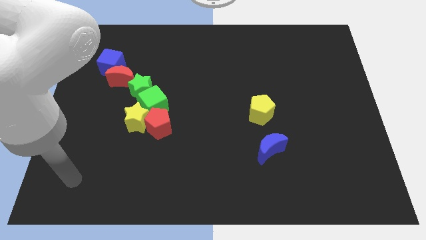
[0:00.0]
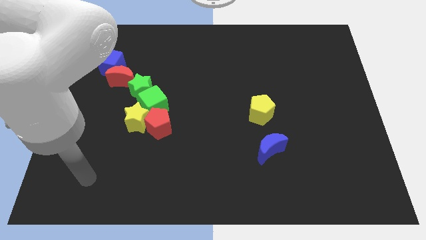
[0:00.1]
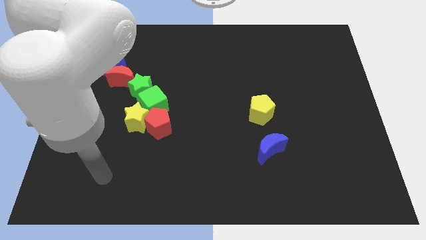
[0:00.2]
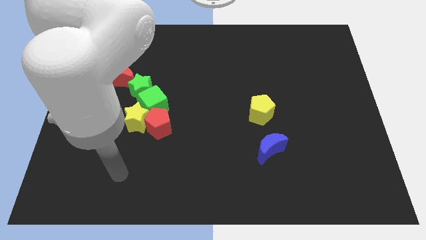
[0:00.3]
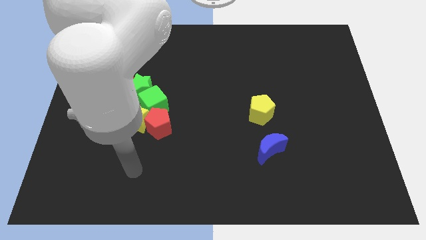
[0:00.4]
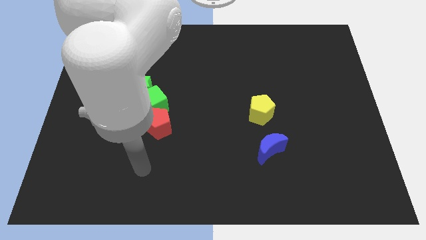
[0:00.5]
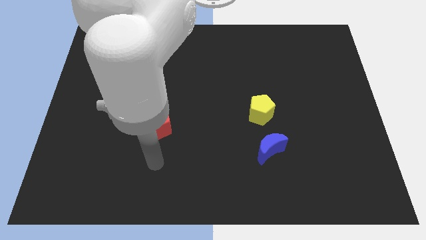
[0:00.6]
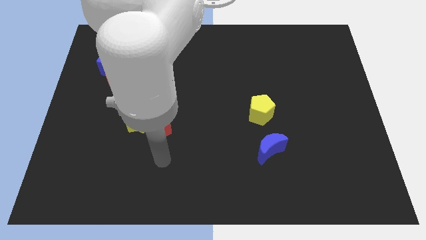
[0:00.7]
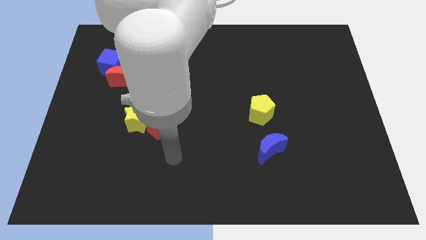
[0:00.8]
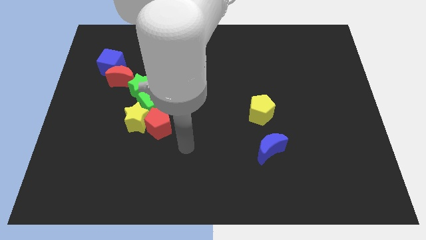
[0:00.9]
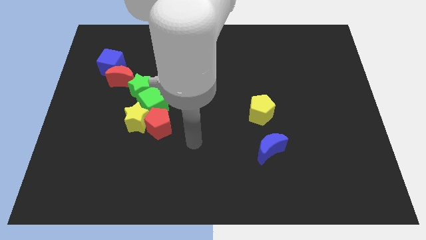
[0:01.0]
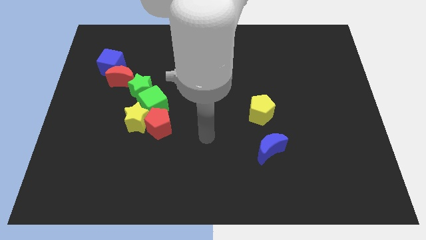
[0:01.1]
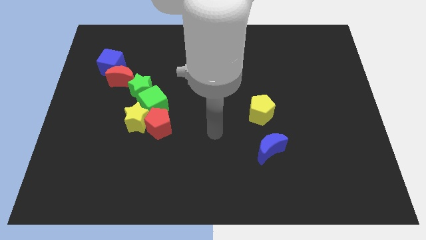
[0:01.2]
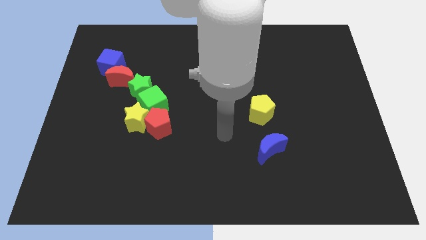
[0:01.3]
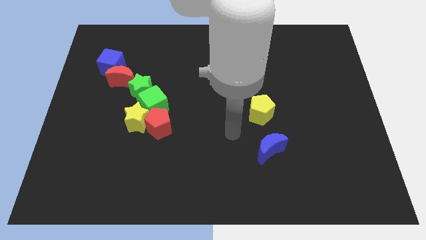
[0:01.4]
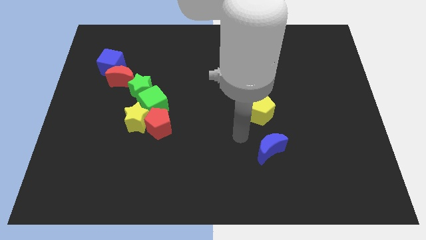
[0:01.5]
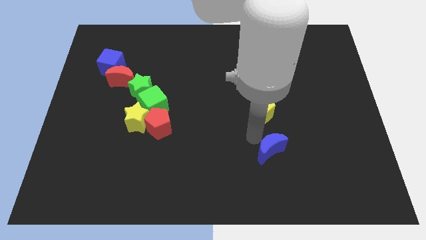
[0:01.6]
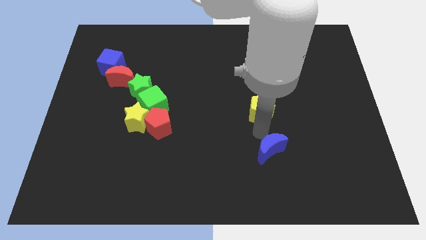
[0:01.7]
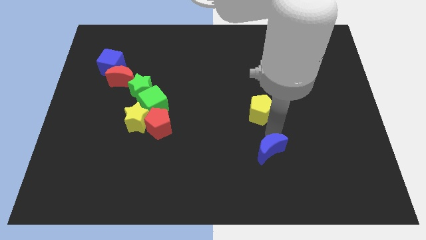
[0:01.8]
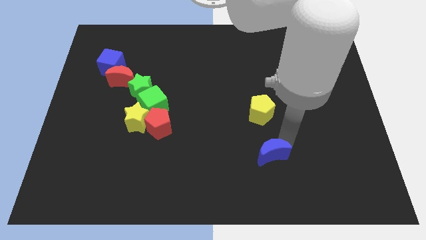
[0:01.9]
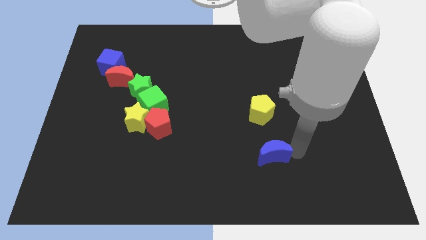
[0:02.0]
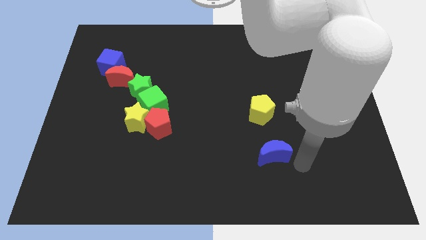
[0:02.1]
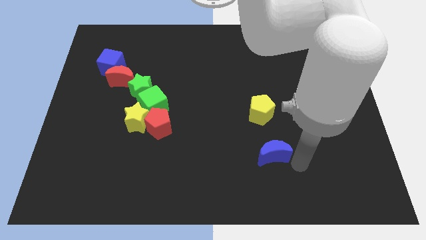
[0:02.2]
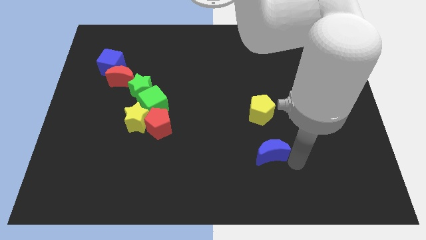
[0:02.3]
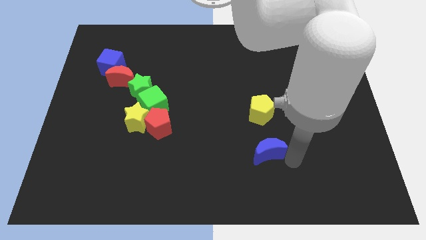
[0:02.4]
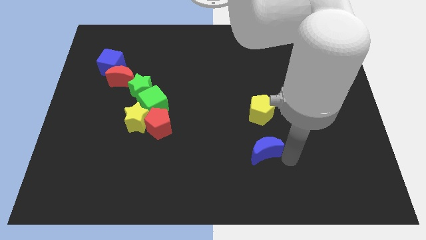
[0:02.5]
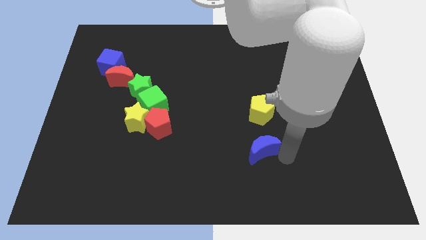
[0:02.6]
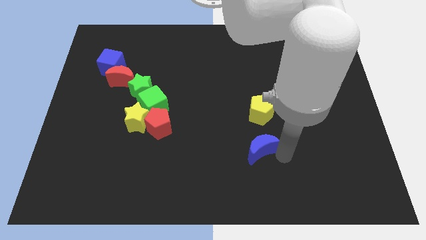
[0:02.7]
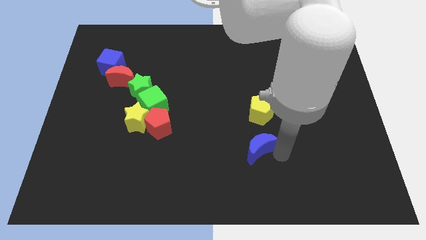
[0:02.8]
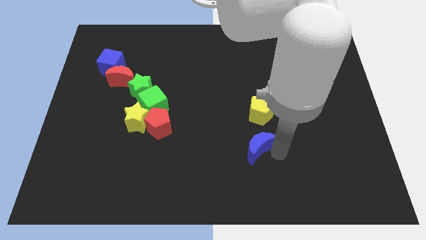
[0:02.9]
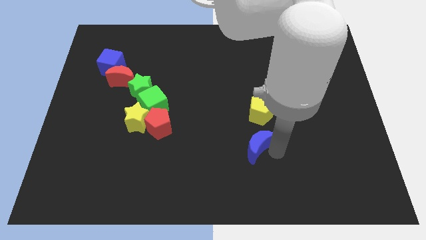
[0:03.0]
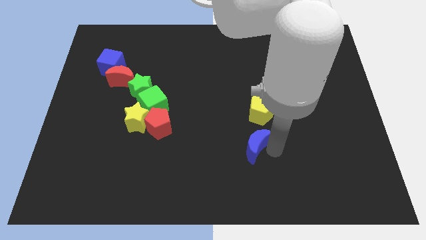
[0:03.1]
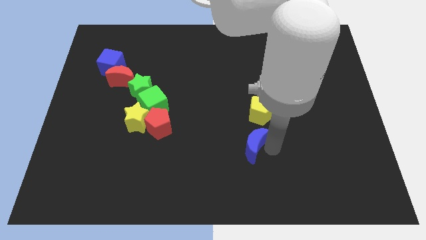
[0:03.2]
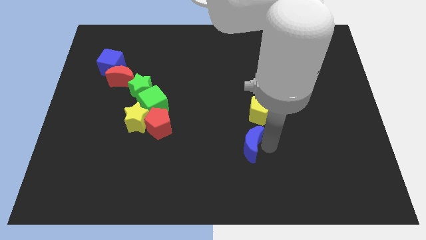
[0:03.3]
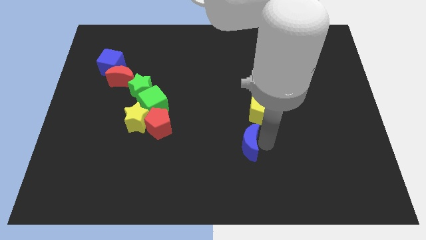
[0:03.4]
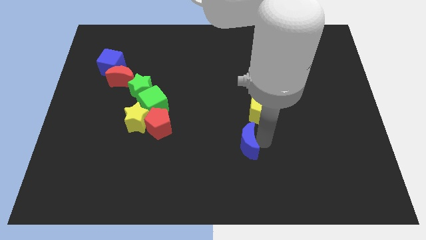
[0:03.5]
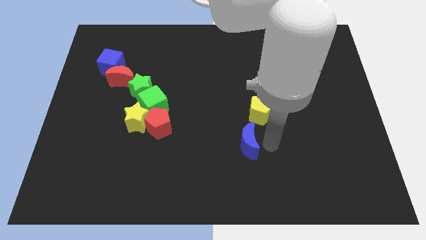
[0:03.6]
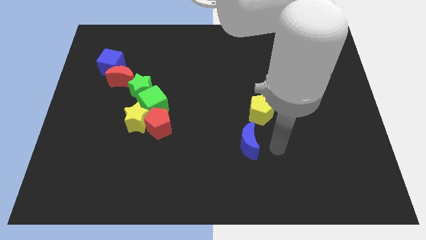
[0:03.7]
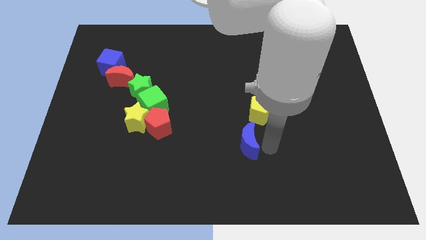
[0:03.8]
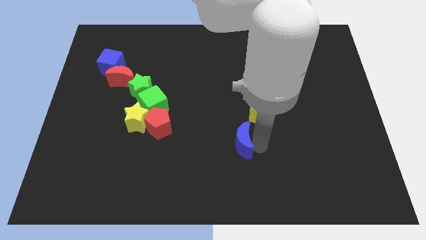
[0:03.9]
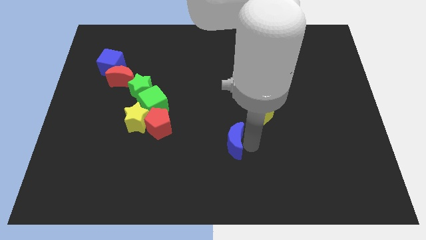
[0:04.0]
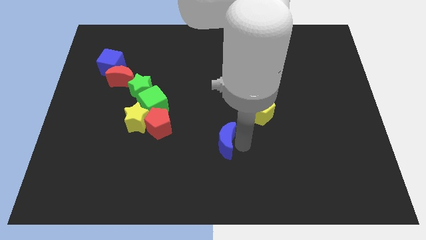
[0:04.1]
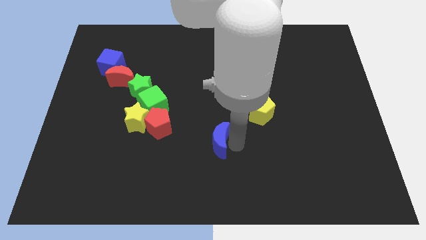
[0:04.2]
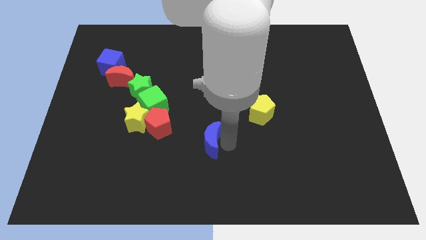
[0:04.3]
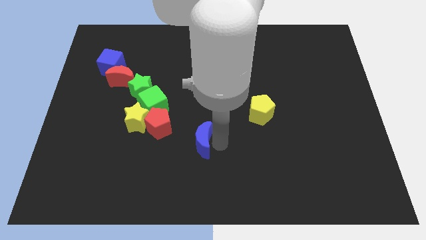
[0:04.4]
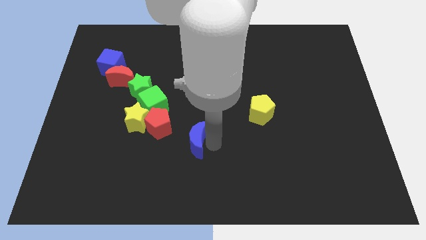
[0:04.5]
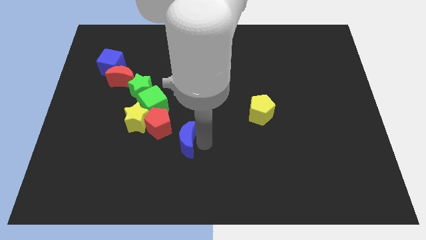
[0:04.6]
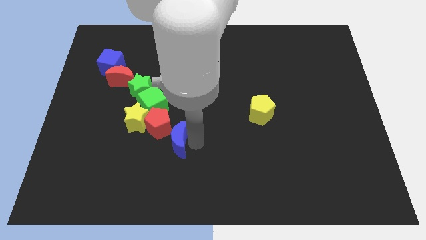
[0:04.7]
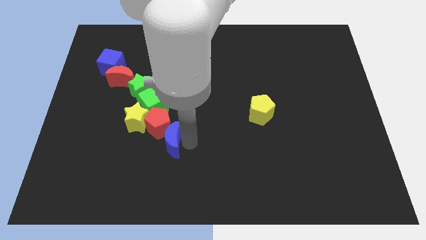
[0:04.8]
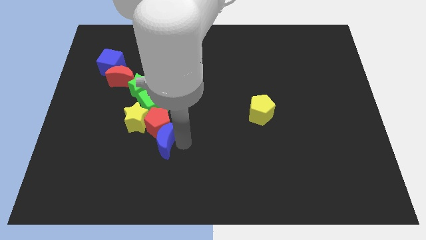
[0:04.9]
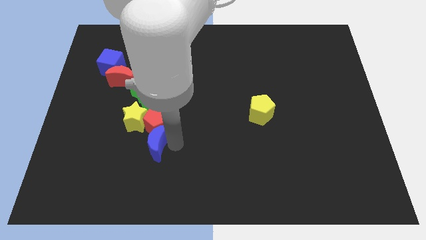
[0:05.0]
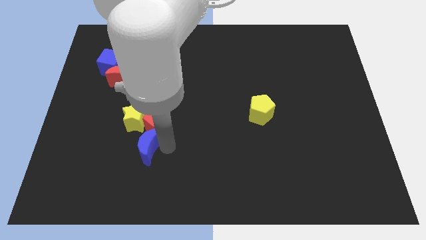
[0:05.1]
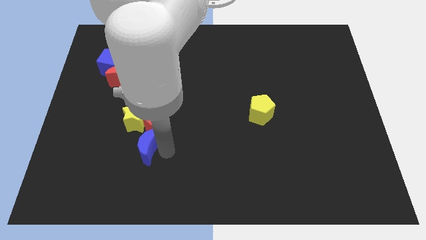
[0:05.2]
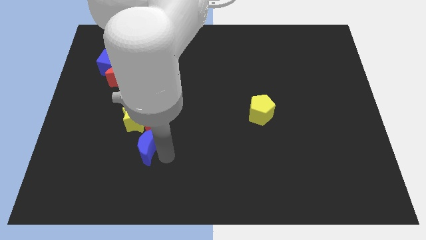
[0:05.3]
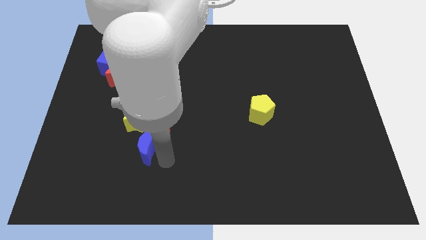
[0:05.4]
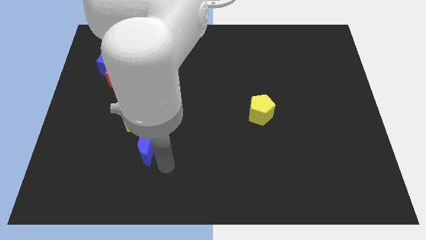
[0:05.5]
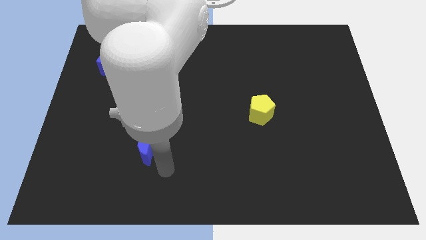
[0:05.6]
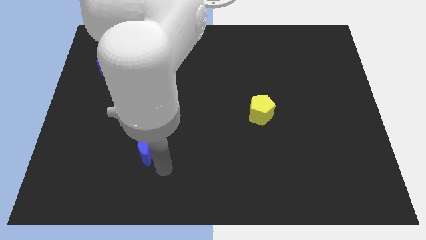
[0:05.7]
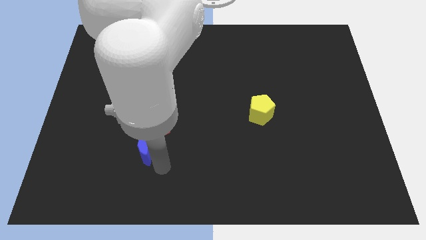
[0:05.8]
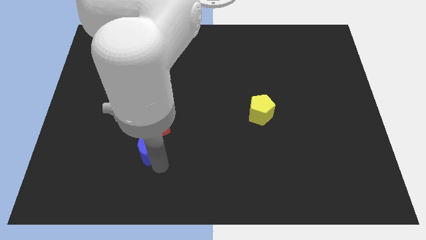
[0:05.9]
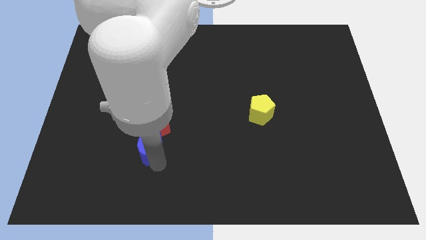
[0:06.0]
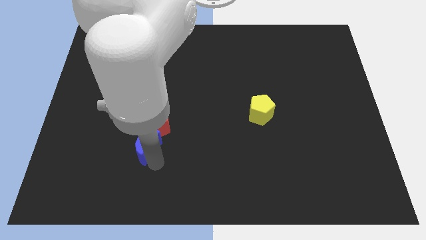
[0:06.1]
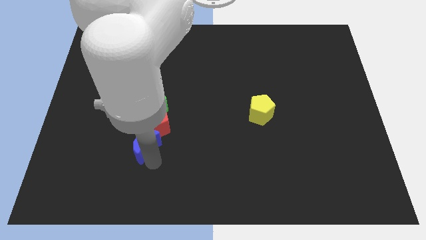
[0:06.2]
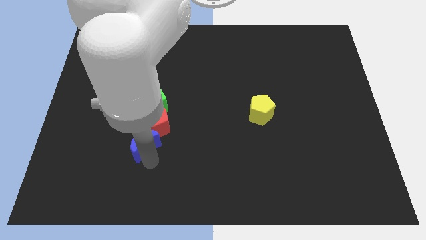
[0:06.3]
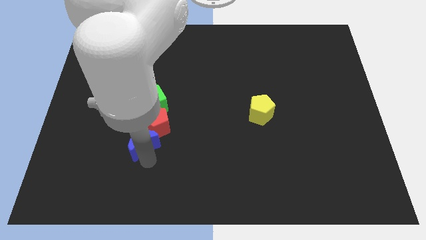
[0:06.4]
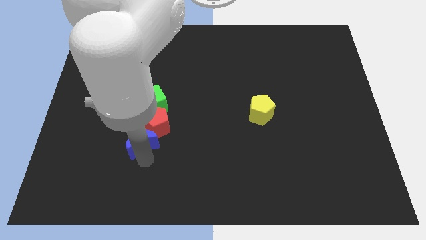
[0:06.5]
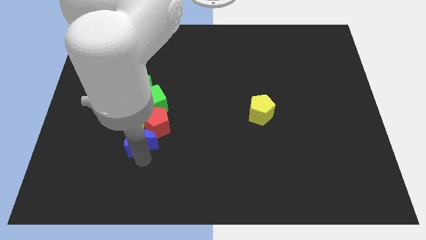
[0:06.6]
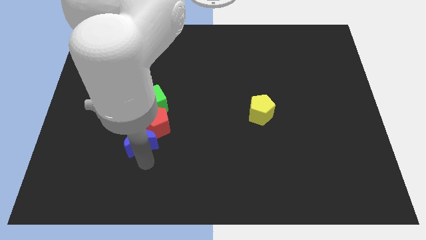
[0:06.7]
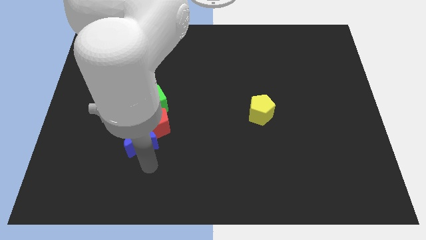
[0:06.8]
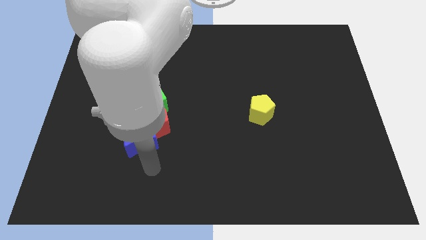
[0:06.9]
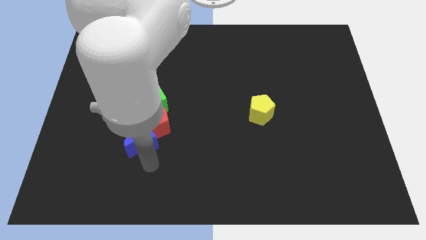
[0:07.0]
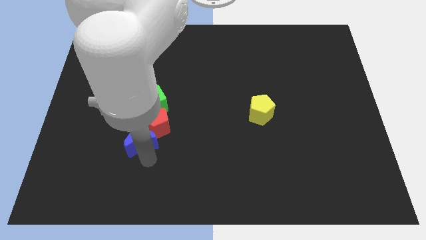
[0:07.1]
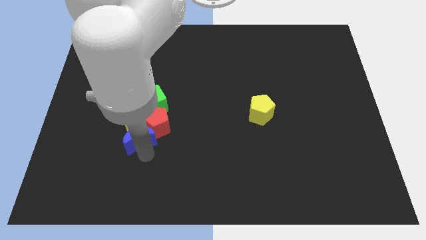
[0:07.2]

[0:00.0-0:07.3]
move the blue moon to the yellow star

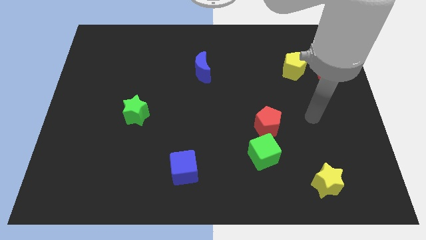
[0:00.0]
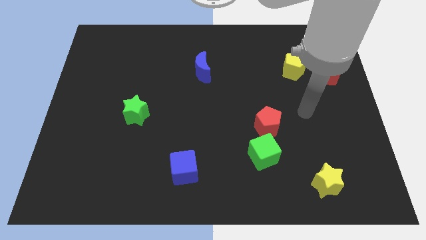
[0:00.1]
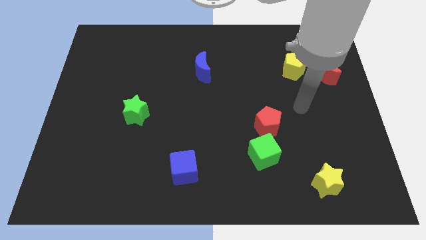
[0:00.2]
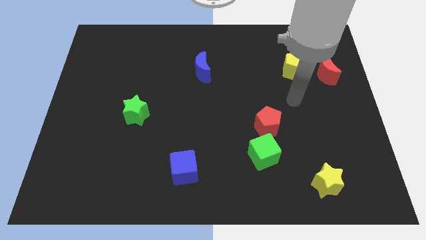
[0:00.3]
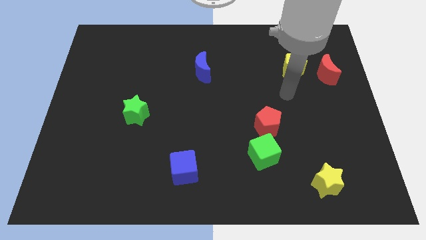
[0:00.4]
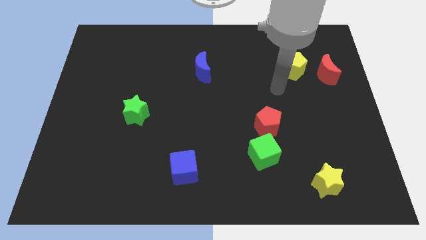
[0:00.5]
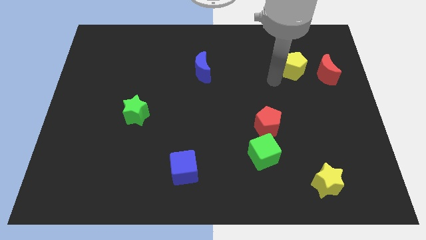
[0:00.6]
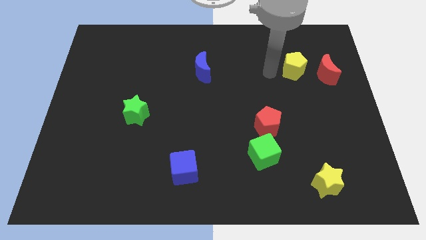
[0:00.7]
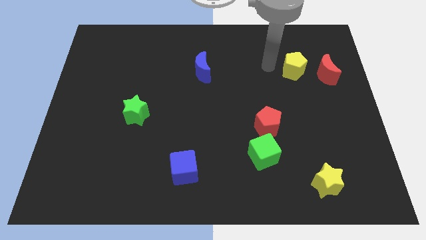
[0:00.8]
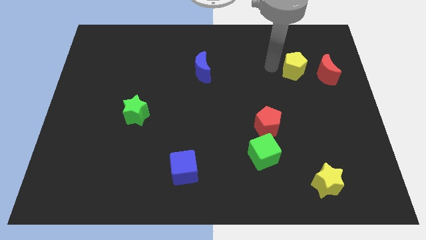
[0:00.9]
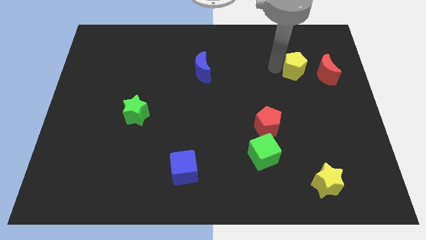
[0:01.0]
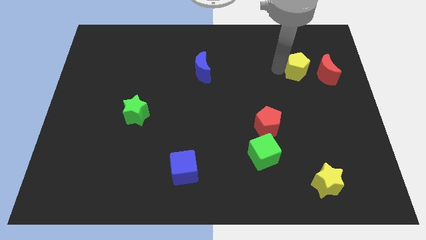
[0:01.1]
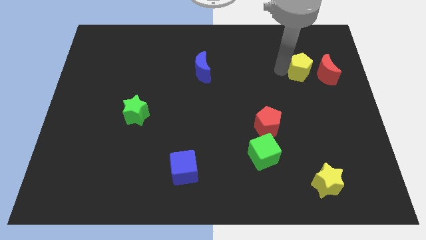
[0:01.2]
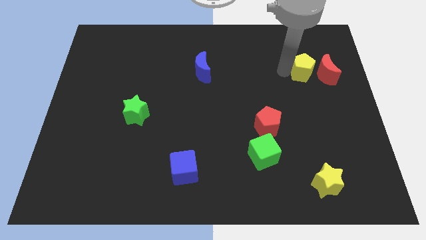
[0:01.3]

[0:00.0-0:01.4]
slide the yellow pentagon to the red moon
